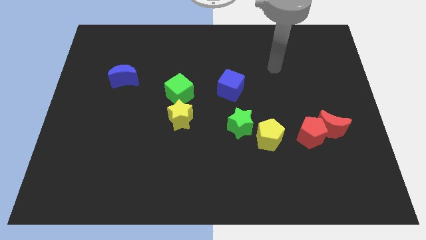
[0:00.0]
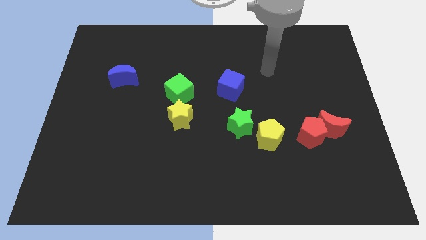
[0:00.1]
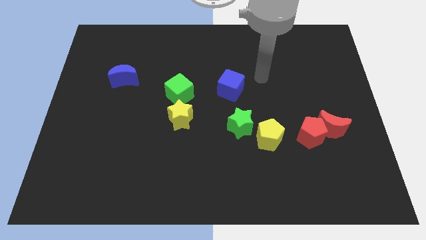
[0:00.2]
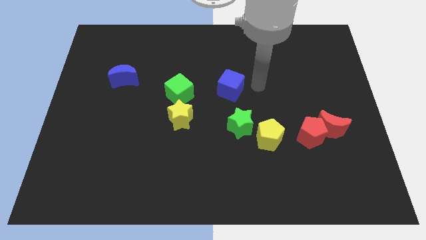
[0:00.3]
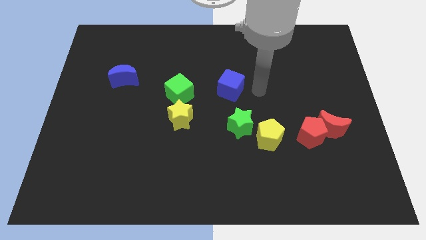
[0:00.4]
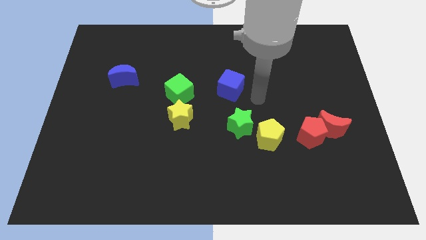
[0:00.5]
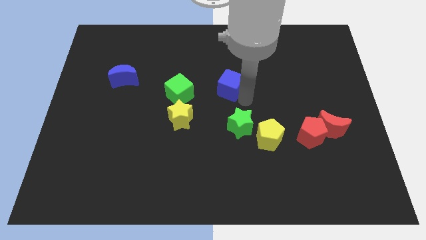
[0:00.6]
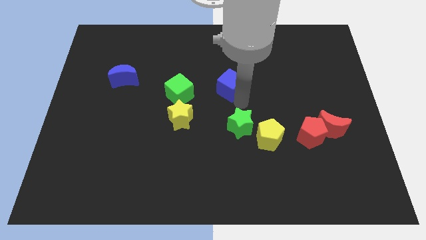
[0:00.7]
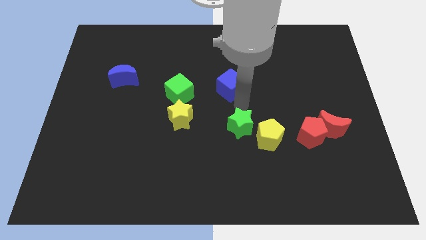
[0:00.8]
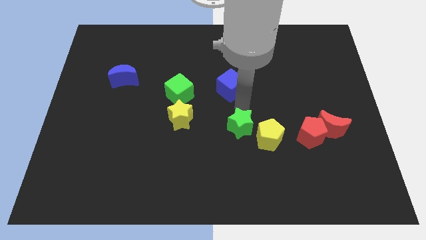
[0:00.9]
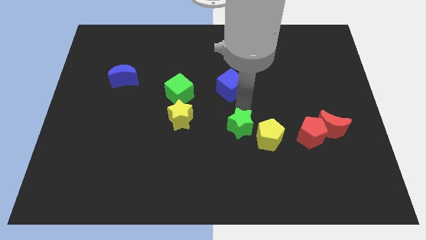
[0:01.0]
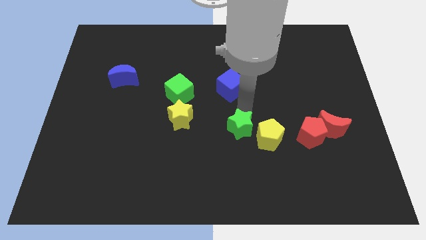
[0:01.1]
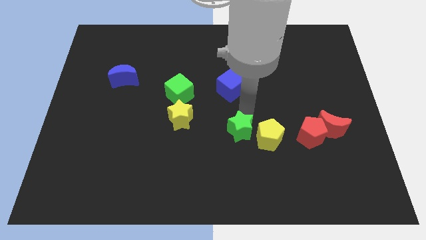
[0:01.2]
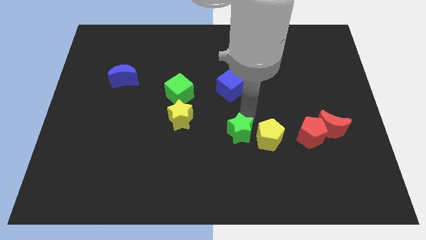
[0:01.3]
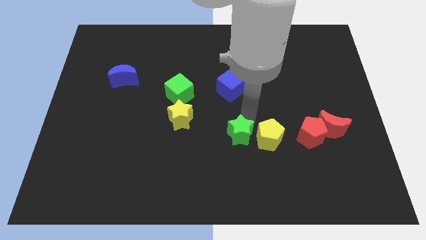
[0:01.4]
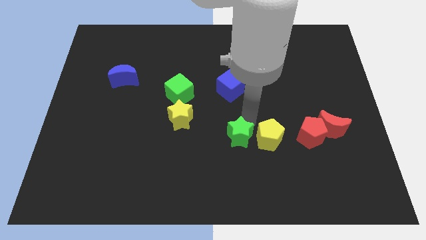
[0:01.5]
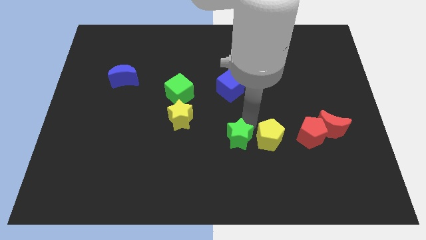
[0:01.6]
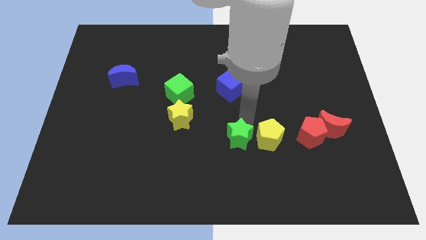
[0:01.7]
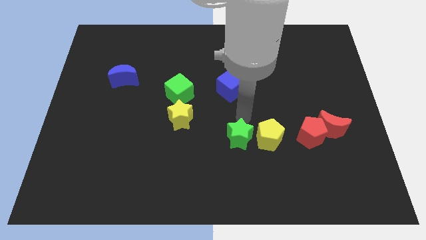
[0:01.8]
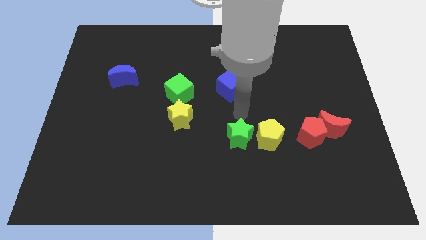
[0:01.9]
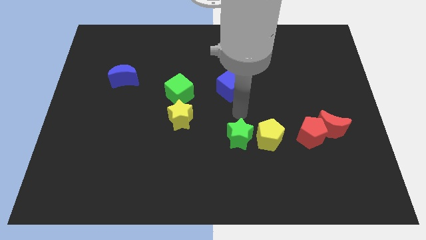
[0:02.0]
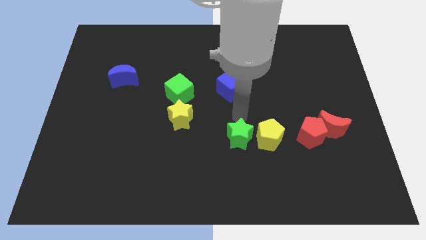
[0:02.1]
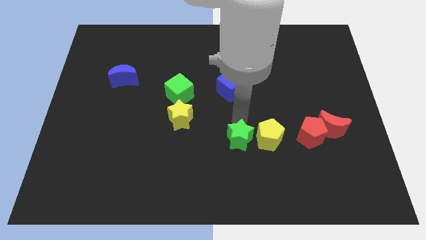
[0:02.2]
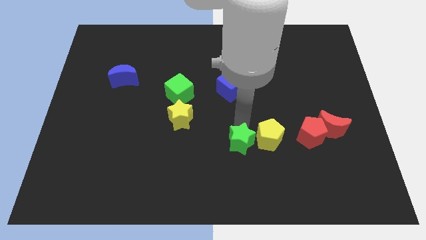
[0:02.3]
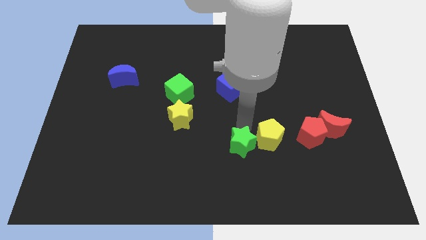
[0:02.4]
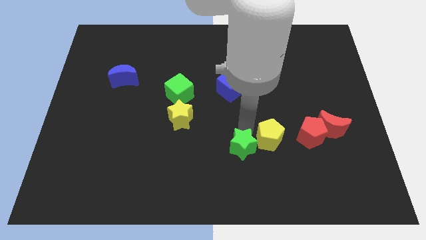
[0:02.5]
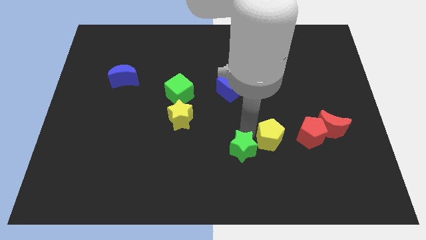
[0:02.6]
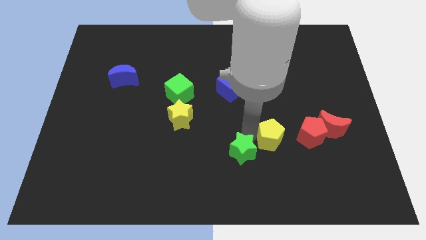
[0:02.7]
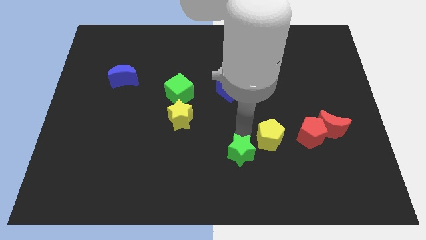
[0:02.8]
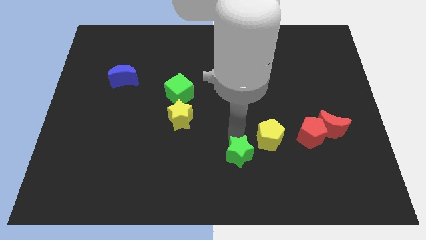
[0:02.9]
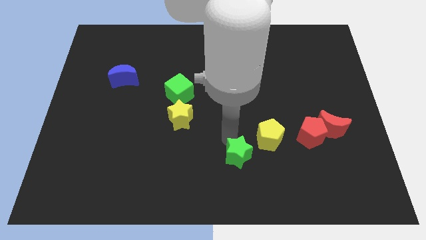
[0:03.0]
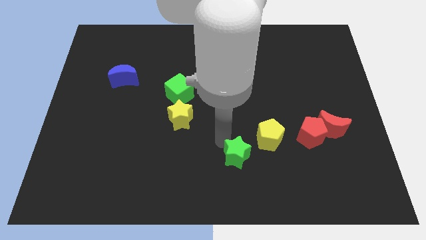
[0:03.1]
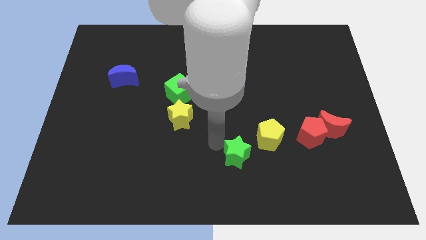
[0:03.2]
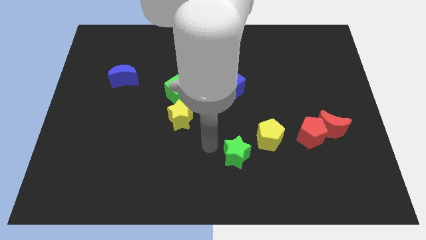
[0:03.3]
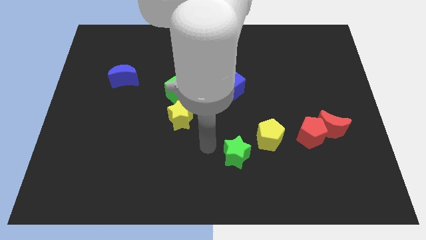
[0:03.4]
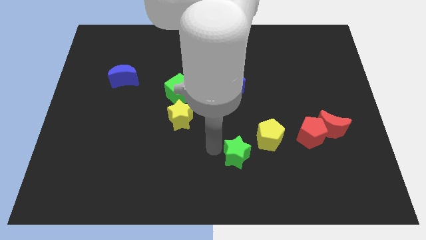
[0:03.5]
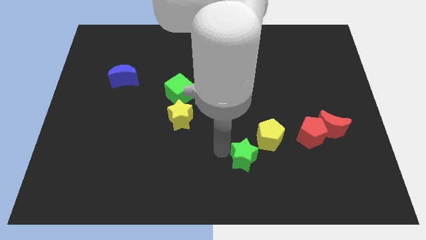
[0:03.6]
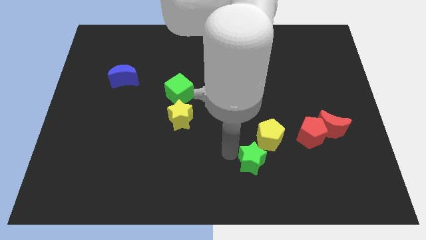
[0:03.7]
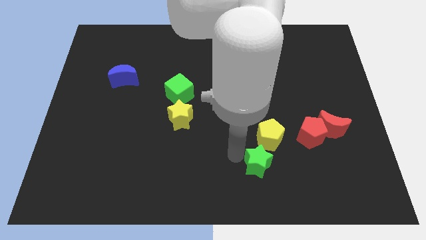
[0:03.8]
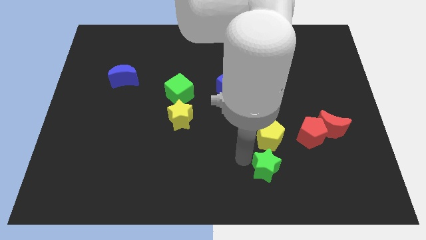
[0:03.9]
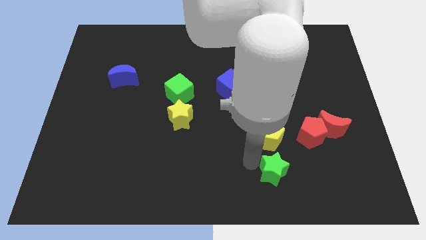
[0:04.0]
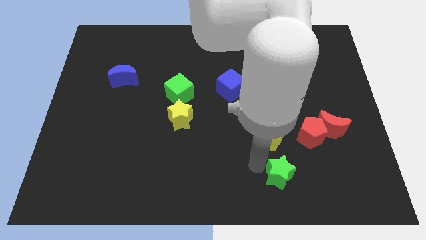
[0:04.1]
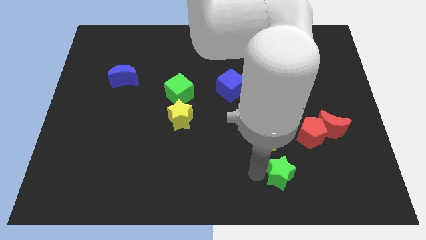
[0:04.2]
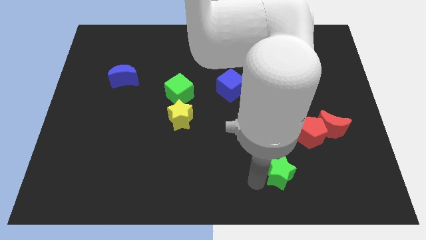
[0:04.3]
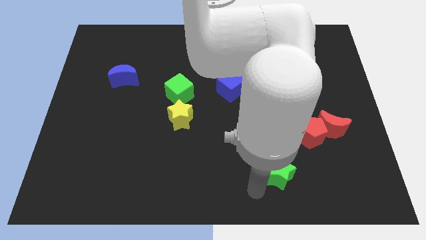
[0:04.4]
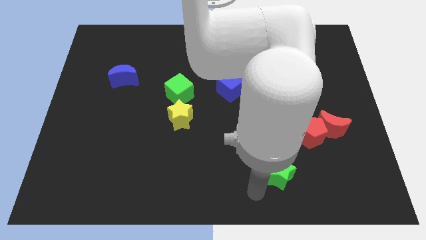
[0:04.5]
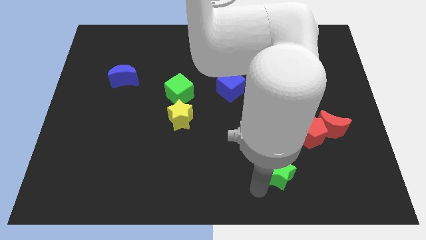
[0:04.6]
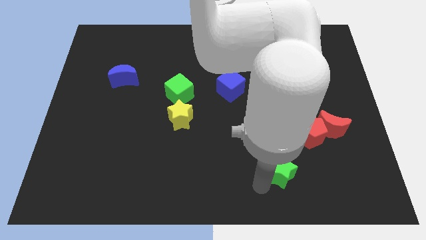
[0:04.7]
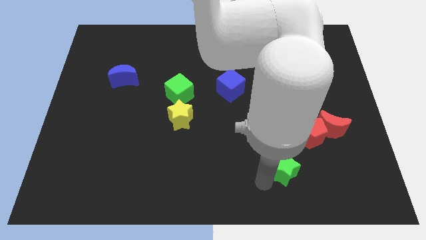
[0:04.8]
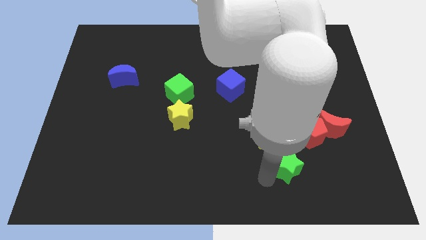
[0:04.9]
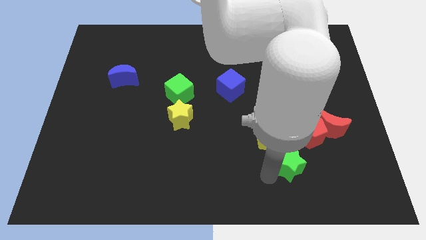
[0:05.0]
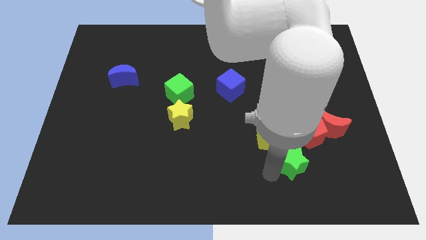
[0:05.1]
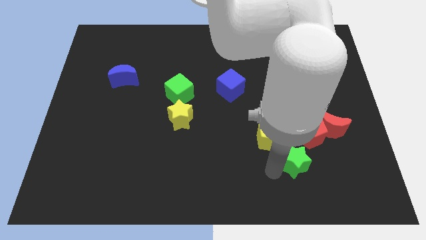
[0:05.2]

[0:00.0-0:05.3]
put the green star to the bottom left of the red moon

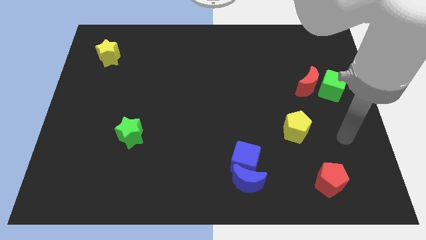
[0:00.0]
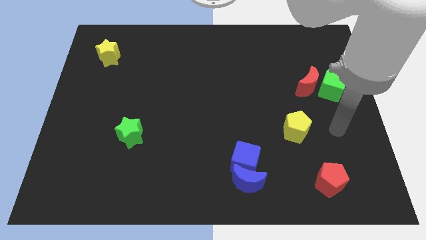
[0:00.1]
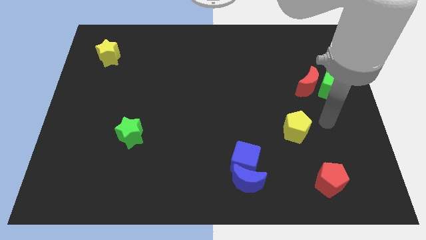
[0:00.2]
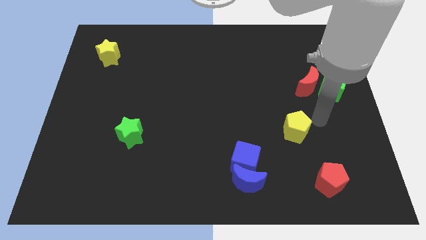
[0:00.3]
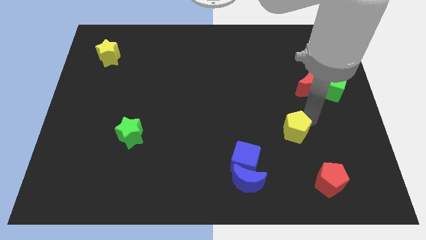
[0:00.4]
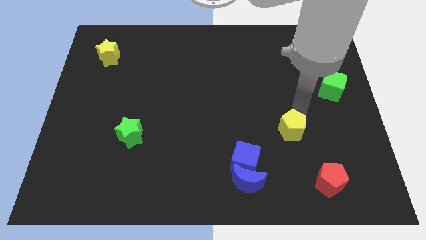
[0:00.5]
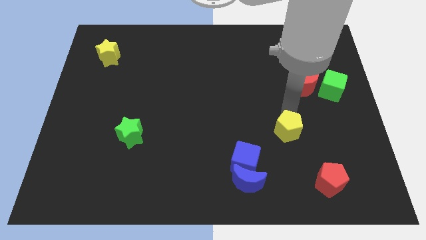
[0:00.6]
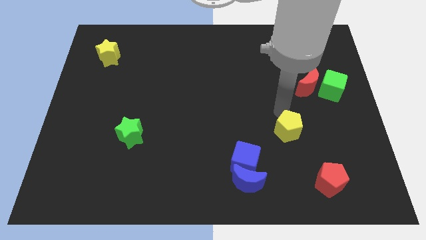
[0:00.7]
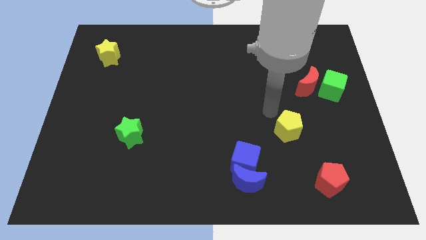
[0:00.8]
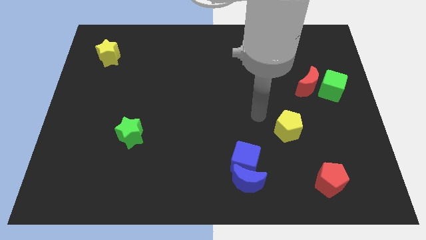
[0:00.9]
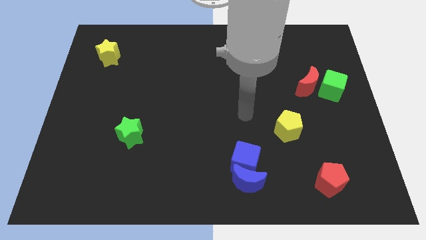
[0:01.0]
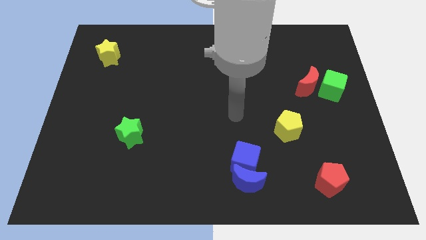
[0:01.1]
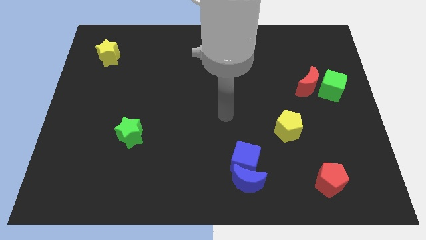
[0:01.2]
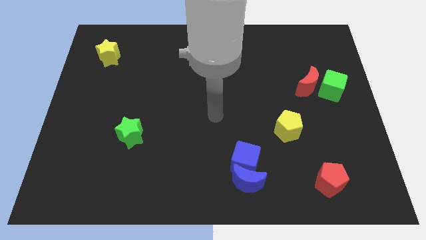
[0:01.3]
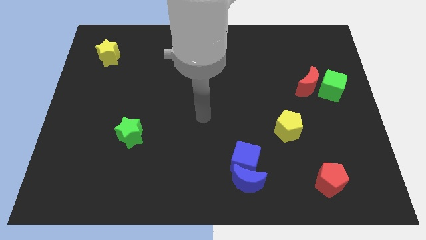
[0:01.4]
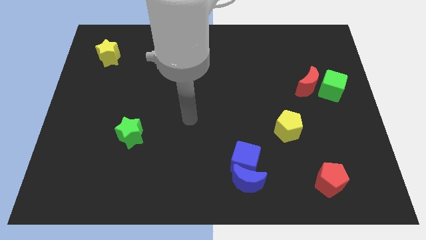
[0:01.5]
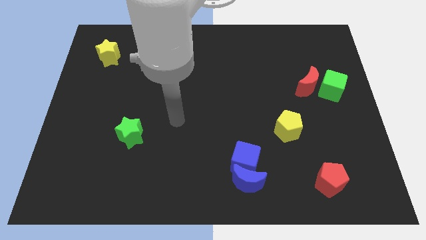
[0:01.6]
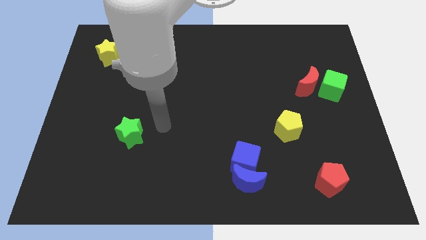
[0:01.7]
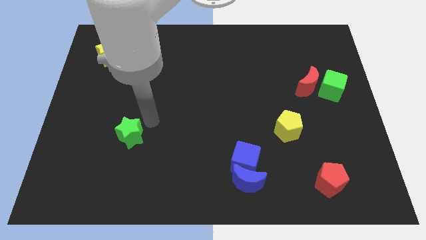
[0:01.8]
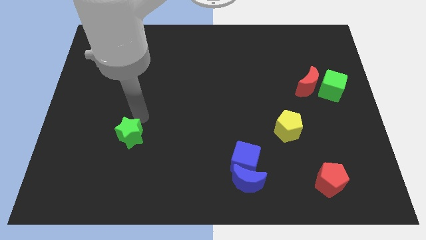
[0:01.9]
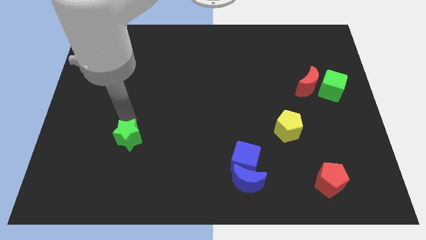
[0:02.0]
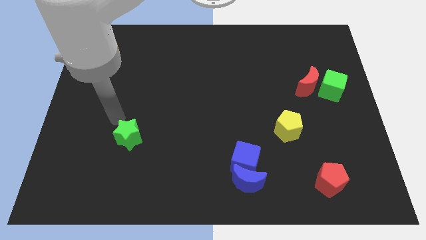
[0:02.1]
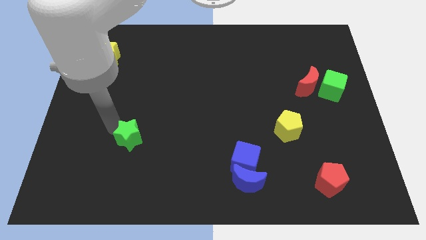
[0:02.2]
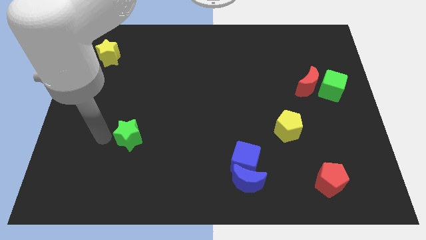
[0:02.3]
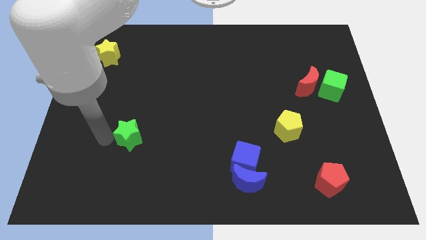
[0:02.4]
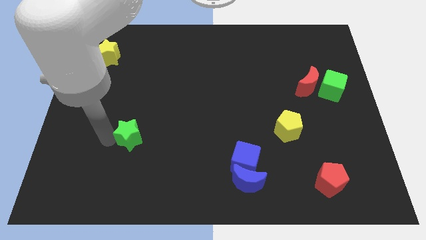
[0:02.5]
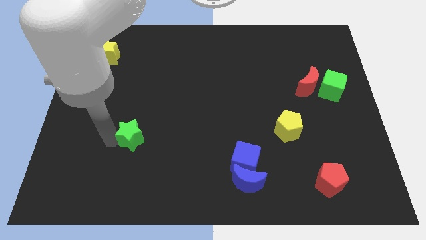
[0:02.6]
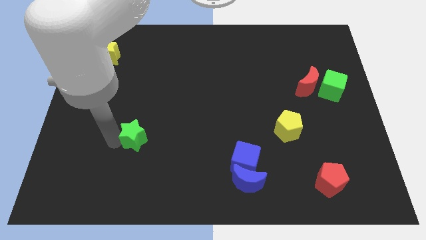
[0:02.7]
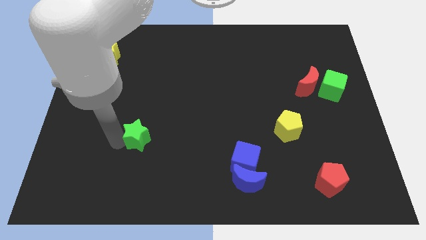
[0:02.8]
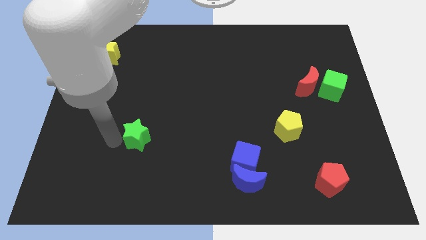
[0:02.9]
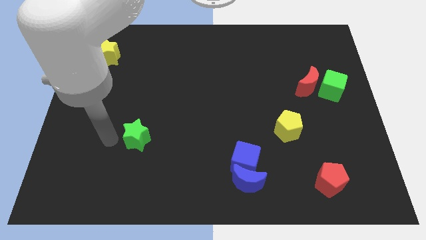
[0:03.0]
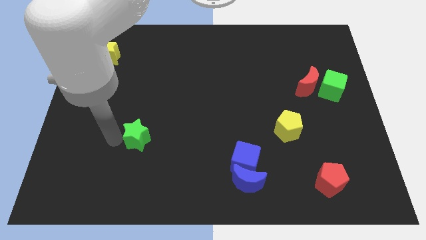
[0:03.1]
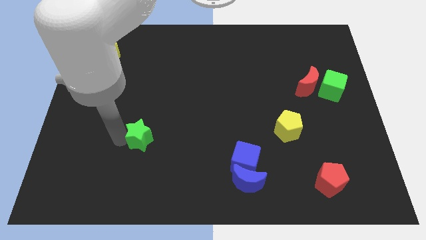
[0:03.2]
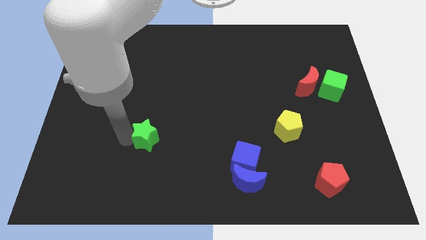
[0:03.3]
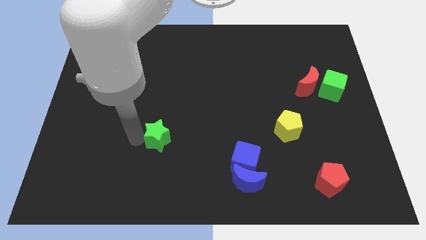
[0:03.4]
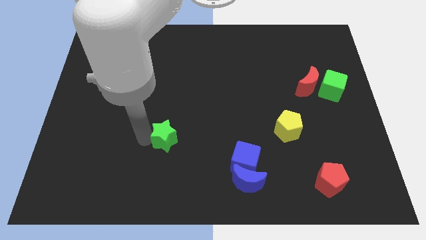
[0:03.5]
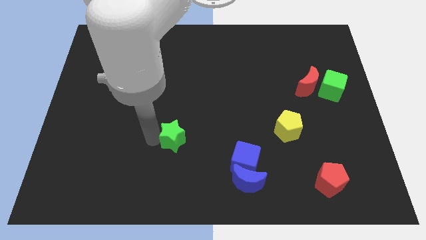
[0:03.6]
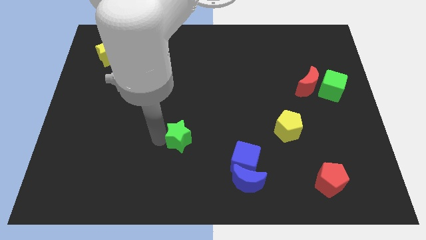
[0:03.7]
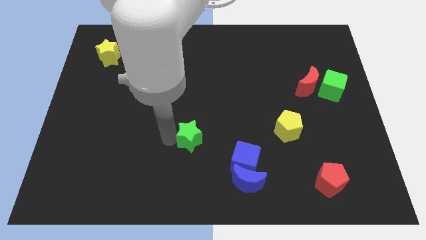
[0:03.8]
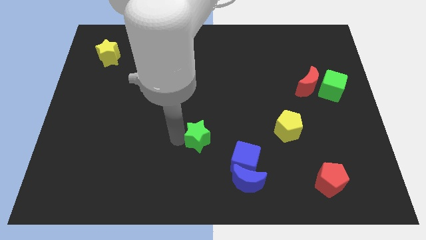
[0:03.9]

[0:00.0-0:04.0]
slide the green star to the top left side of the blue cube
